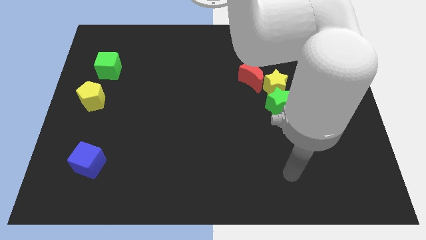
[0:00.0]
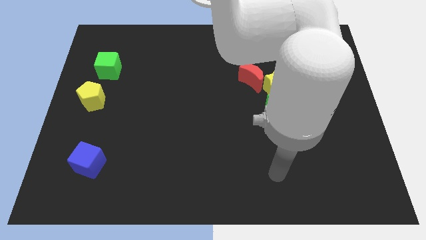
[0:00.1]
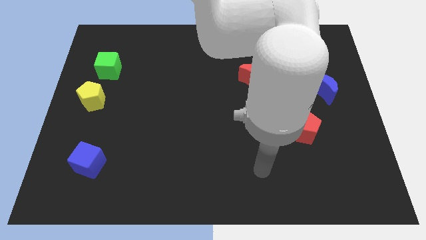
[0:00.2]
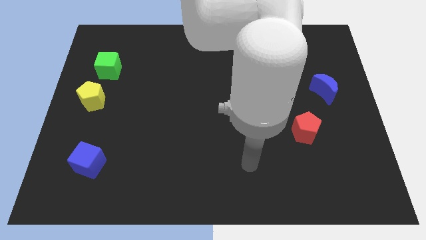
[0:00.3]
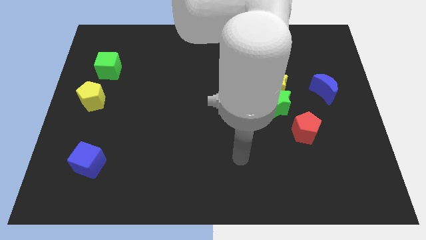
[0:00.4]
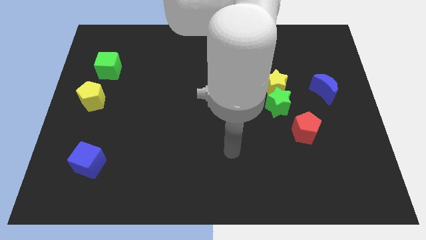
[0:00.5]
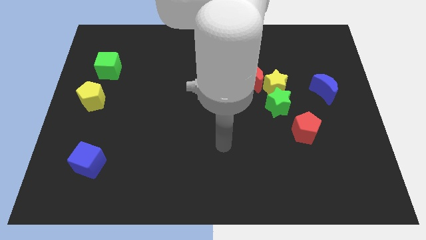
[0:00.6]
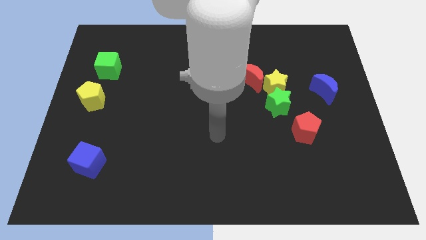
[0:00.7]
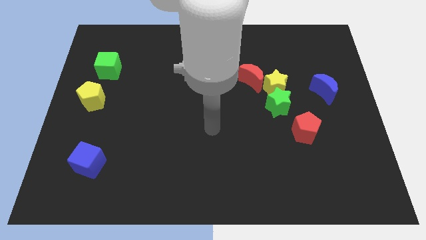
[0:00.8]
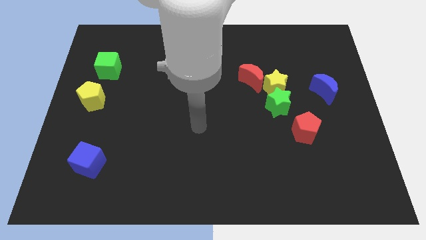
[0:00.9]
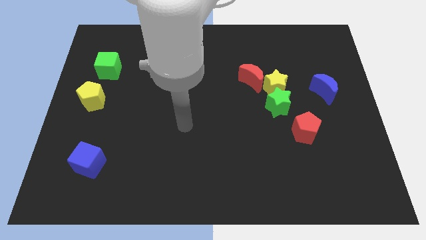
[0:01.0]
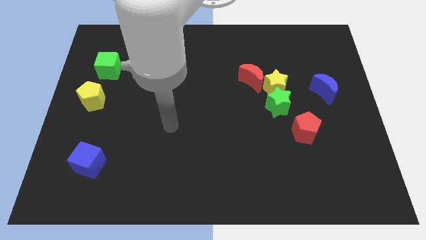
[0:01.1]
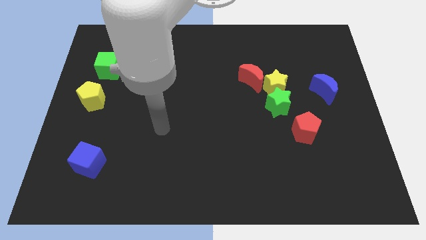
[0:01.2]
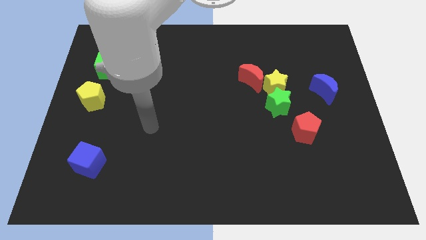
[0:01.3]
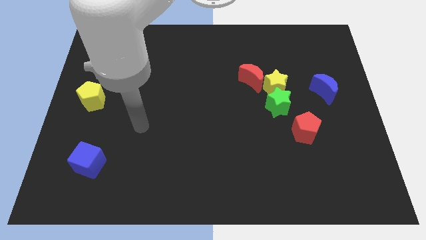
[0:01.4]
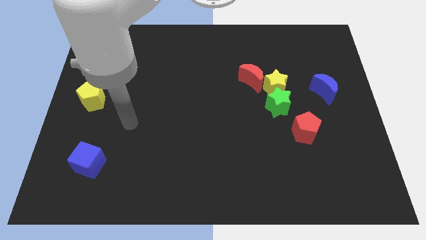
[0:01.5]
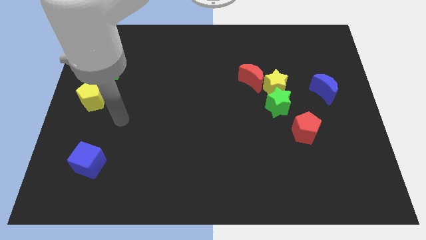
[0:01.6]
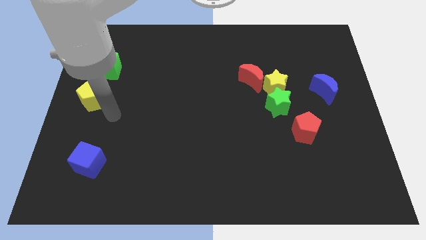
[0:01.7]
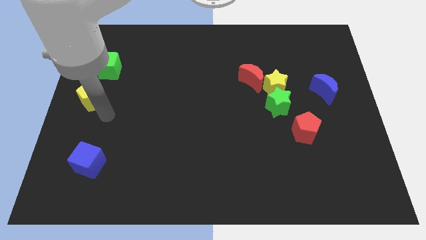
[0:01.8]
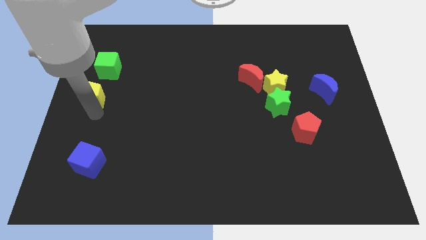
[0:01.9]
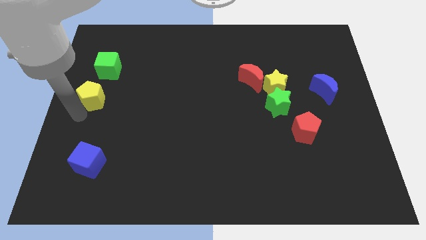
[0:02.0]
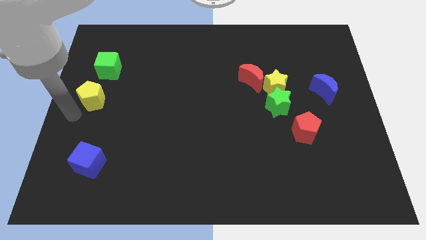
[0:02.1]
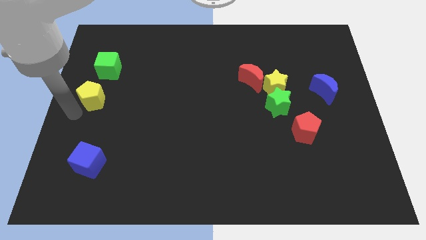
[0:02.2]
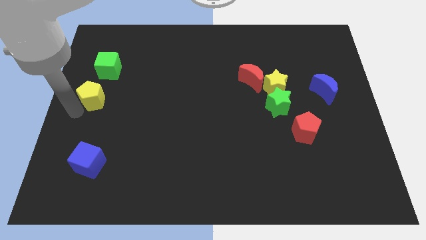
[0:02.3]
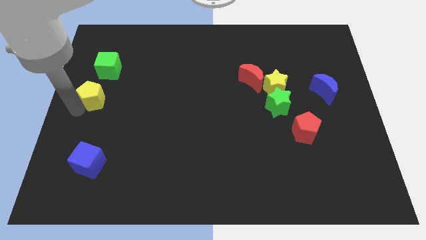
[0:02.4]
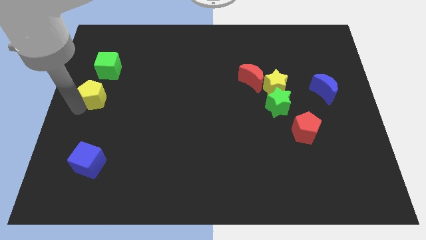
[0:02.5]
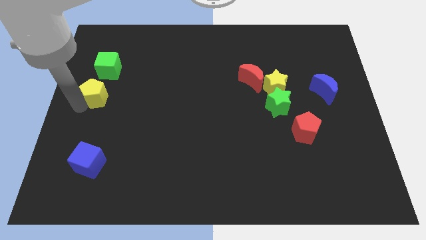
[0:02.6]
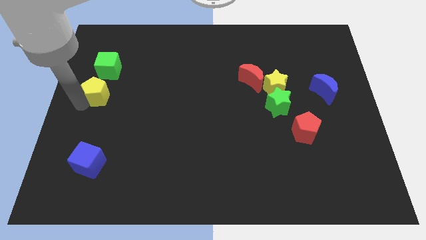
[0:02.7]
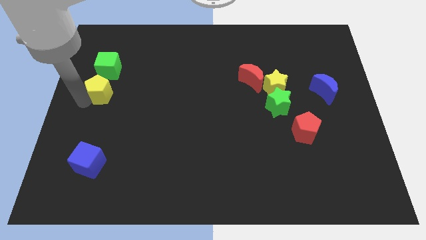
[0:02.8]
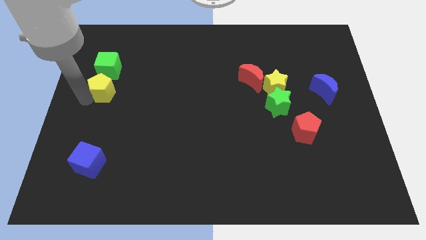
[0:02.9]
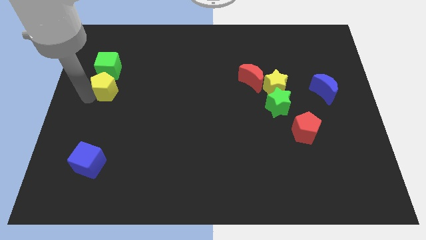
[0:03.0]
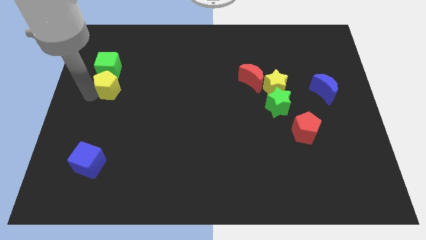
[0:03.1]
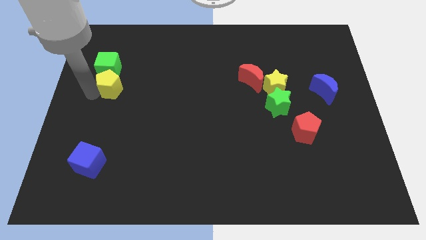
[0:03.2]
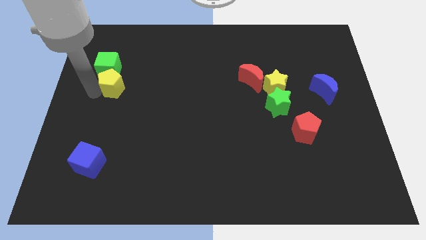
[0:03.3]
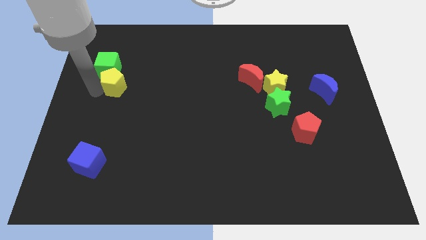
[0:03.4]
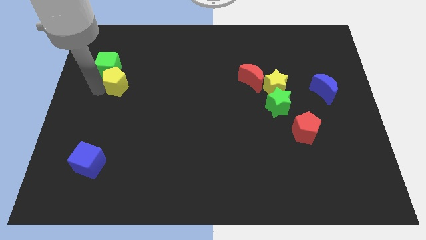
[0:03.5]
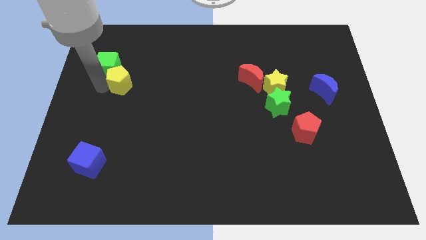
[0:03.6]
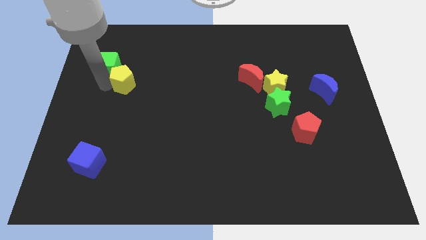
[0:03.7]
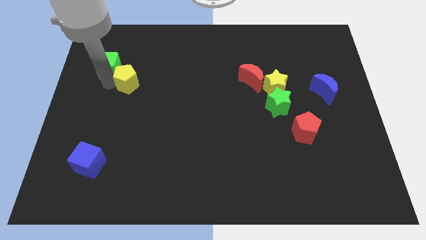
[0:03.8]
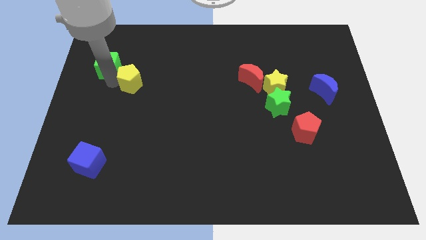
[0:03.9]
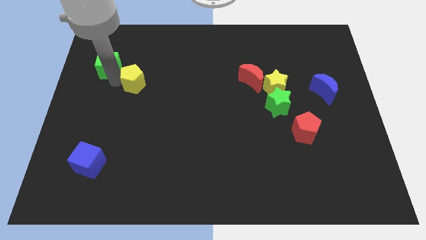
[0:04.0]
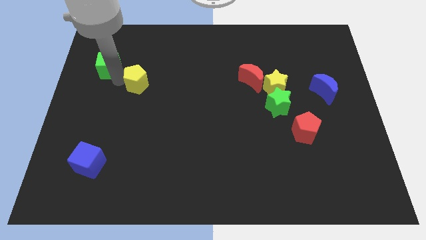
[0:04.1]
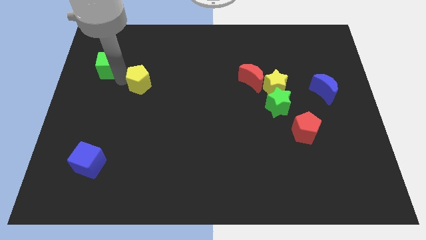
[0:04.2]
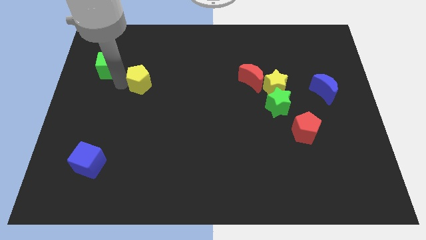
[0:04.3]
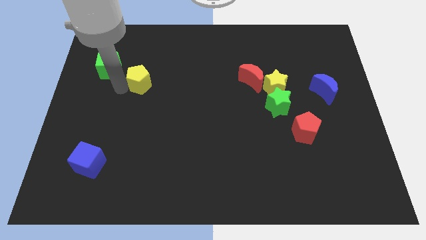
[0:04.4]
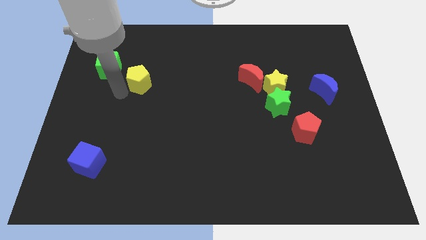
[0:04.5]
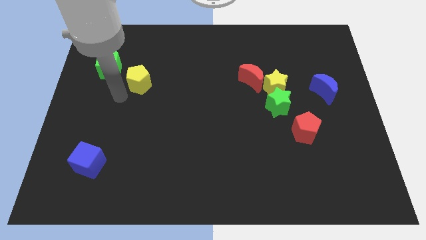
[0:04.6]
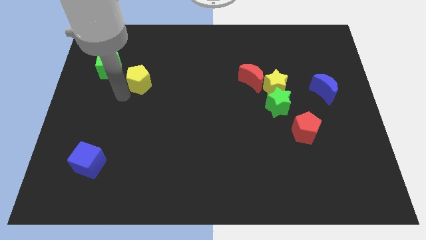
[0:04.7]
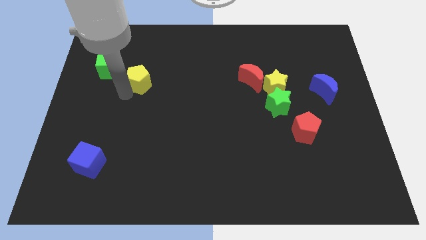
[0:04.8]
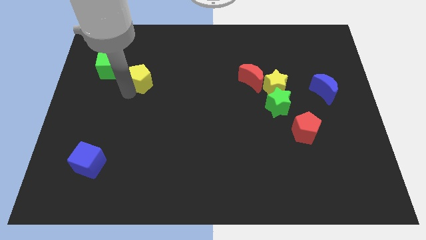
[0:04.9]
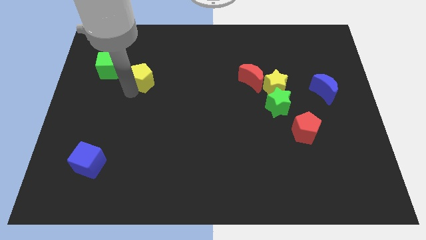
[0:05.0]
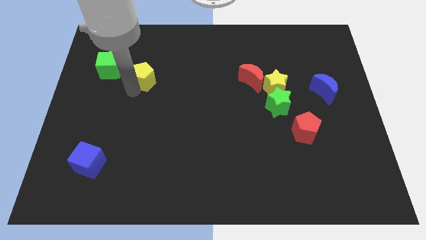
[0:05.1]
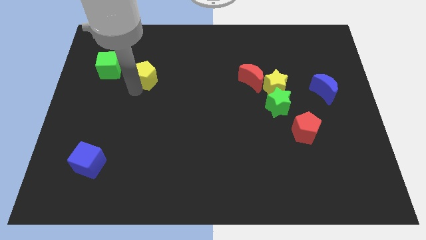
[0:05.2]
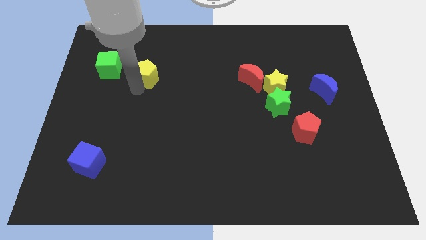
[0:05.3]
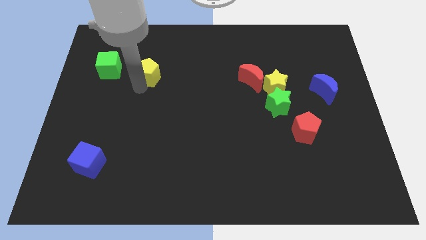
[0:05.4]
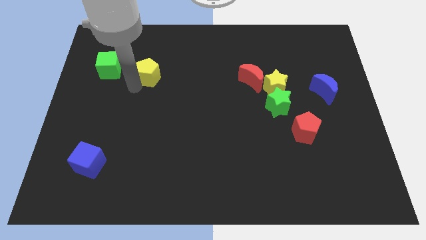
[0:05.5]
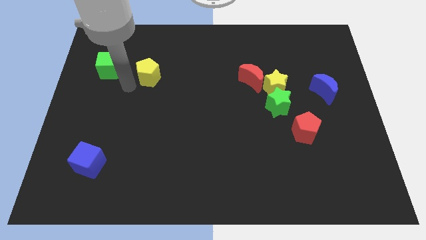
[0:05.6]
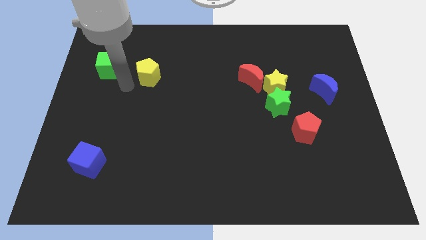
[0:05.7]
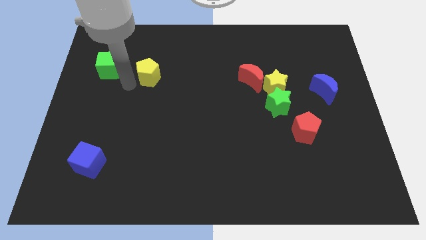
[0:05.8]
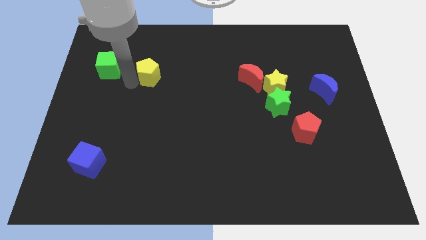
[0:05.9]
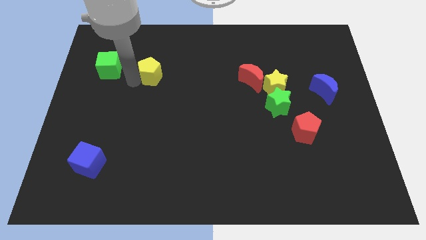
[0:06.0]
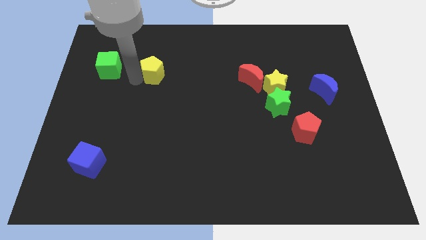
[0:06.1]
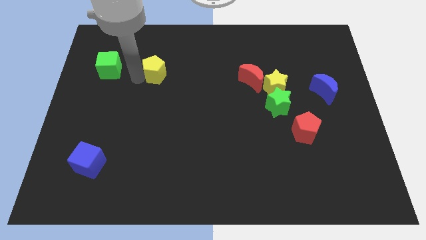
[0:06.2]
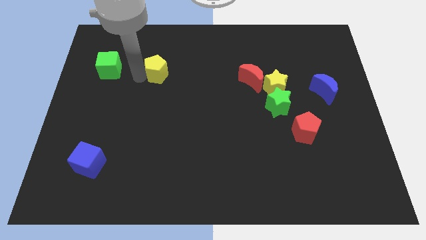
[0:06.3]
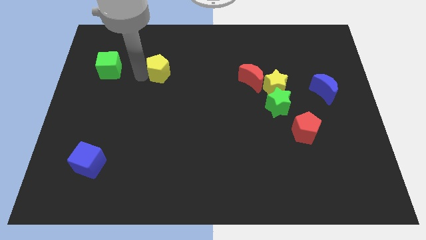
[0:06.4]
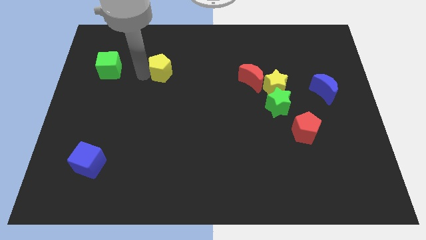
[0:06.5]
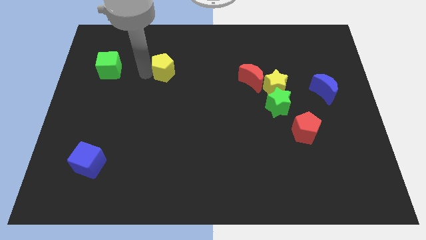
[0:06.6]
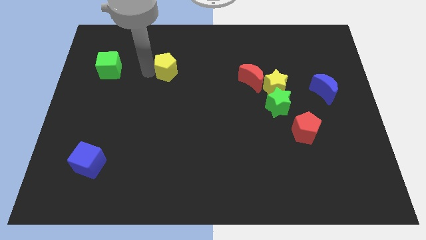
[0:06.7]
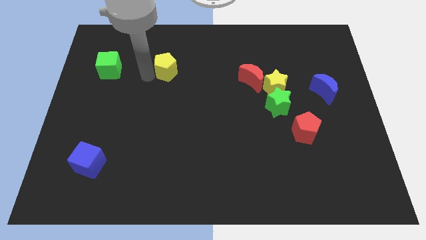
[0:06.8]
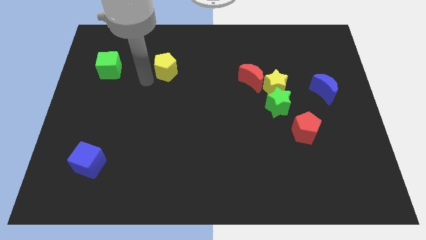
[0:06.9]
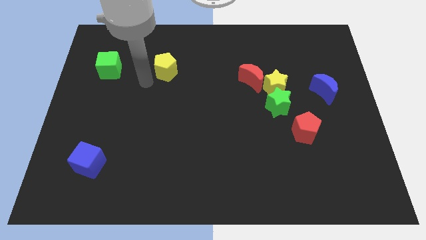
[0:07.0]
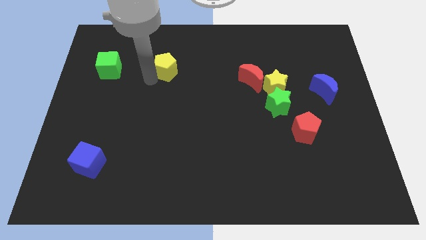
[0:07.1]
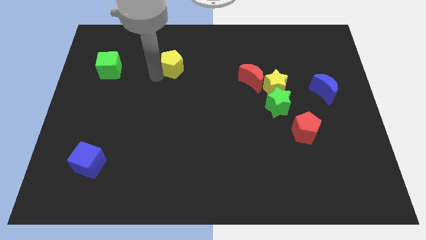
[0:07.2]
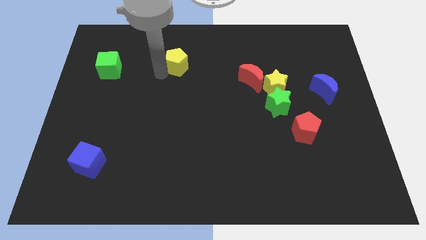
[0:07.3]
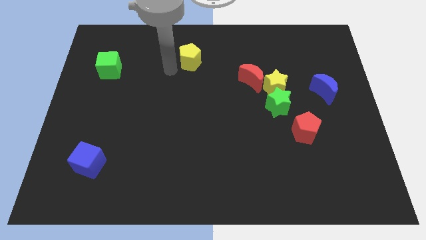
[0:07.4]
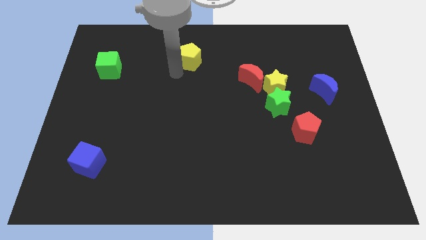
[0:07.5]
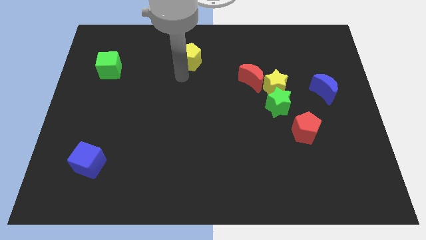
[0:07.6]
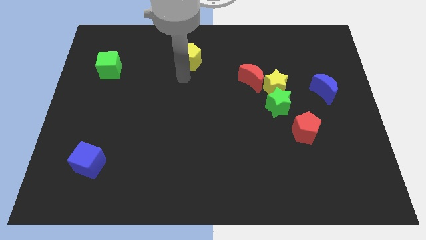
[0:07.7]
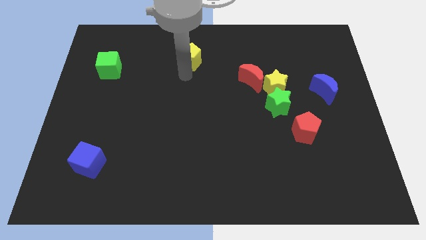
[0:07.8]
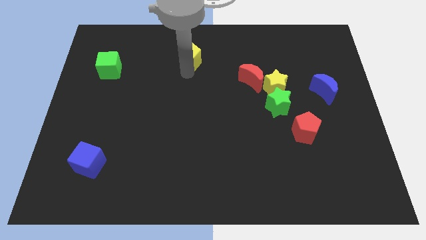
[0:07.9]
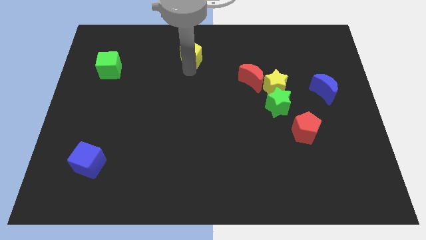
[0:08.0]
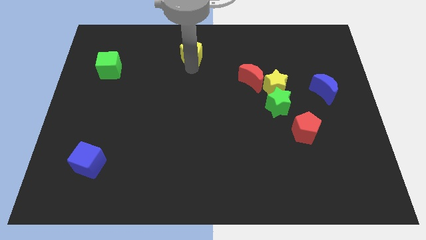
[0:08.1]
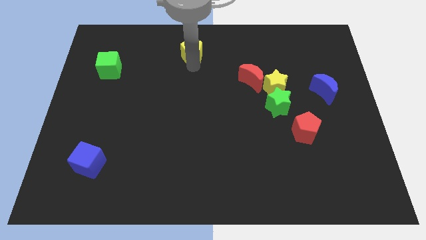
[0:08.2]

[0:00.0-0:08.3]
push the yellow pentagon to the top side
